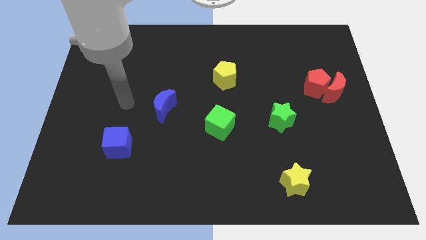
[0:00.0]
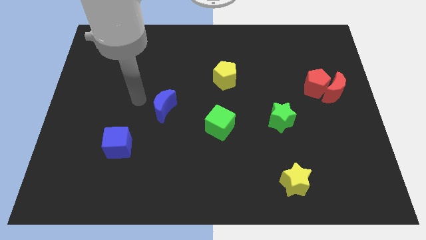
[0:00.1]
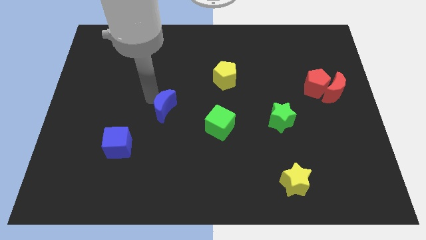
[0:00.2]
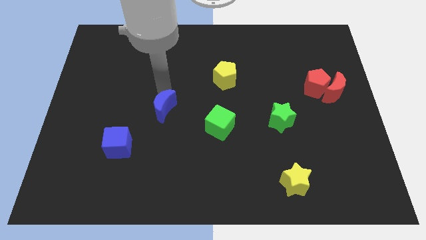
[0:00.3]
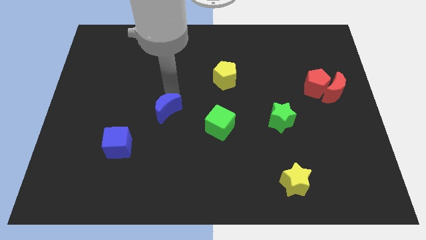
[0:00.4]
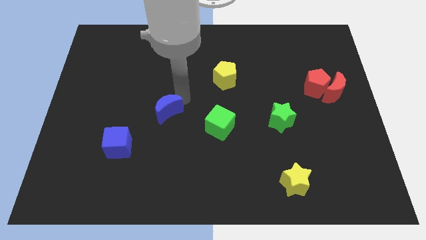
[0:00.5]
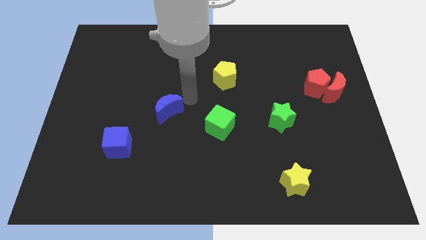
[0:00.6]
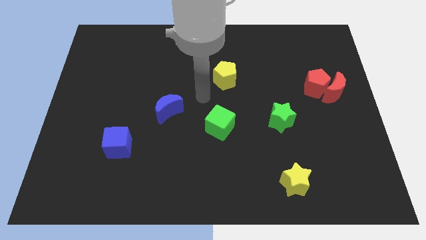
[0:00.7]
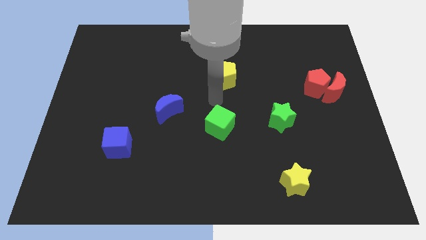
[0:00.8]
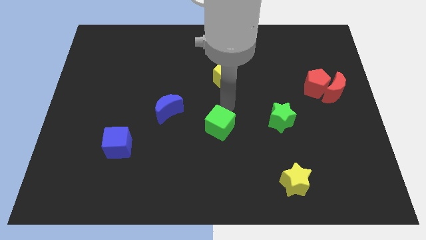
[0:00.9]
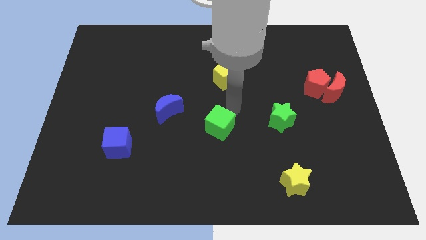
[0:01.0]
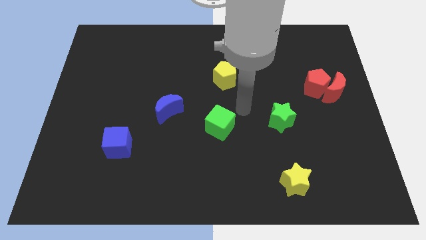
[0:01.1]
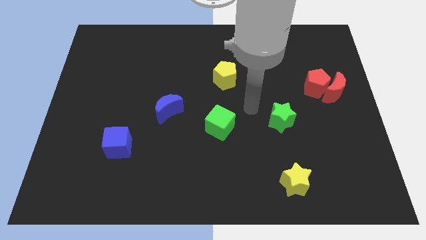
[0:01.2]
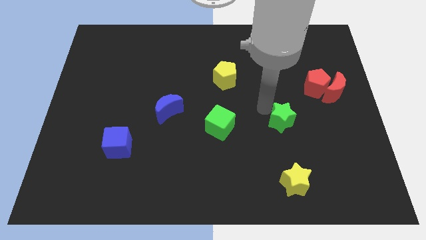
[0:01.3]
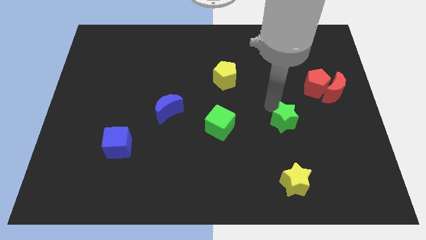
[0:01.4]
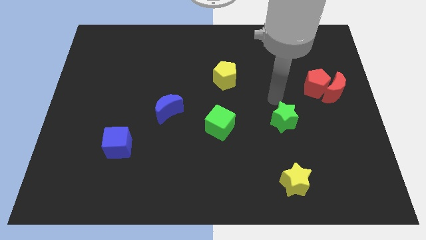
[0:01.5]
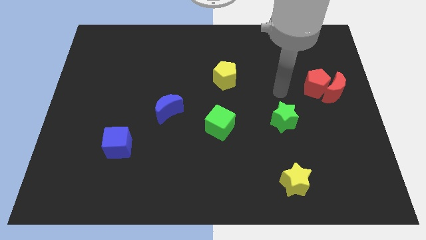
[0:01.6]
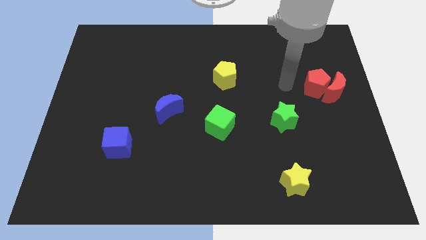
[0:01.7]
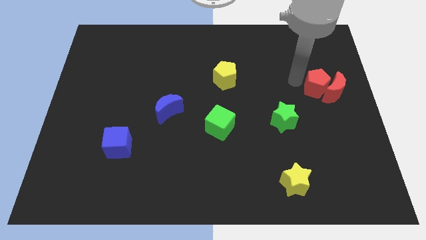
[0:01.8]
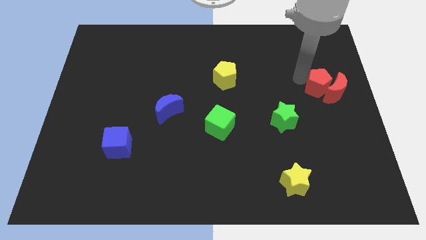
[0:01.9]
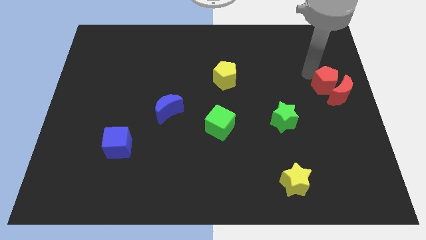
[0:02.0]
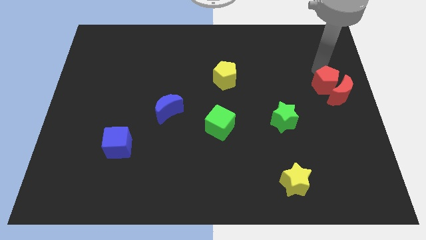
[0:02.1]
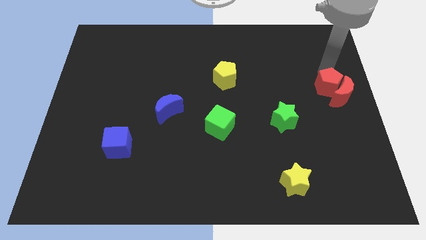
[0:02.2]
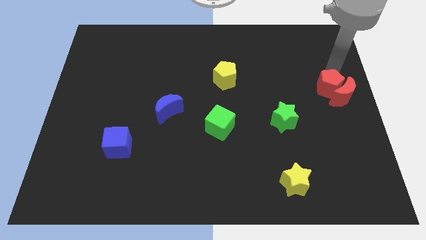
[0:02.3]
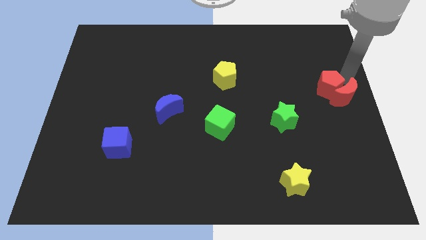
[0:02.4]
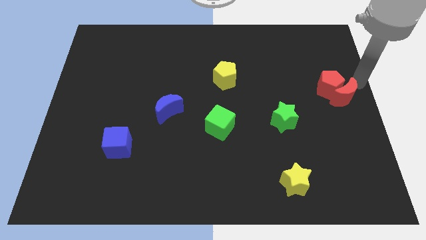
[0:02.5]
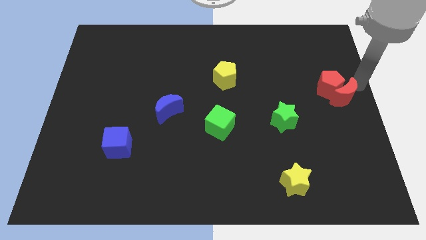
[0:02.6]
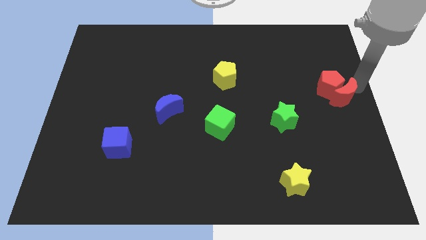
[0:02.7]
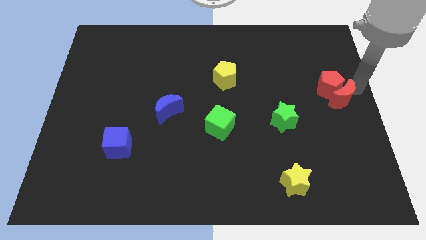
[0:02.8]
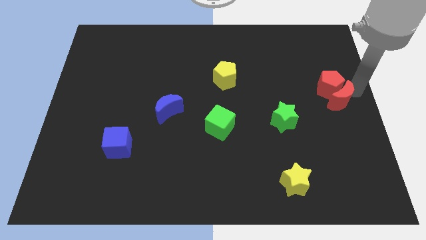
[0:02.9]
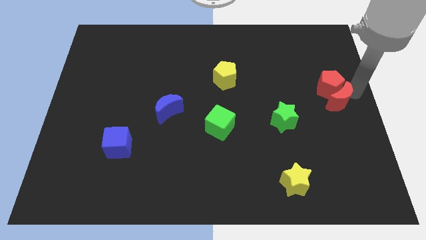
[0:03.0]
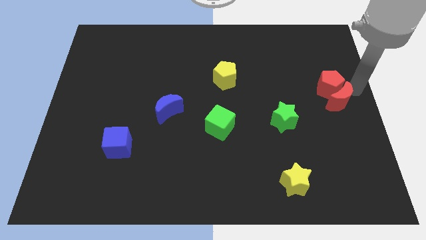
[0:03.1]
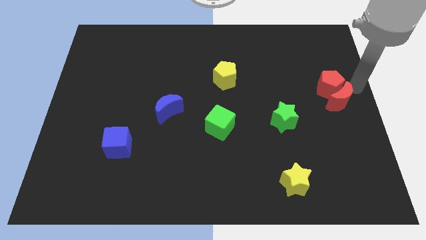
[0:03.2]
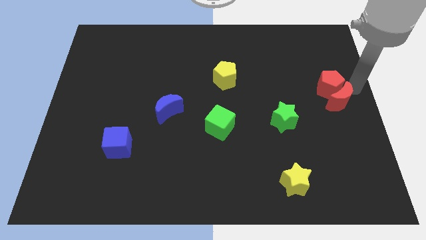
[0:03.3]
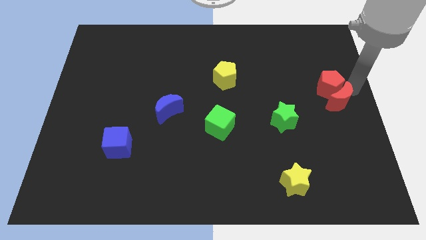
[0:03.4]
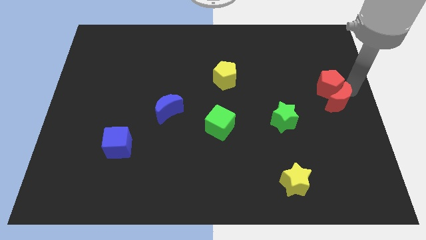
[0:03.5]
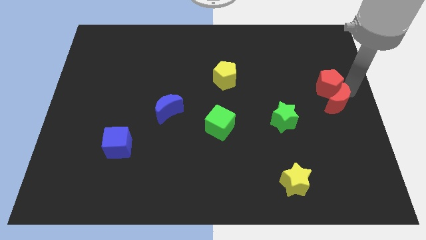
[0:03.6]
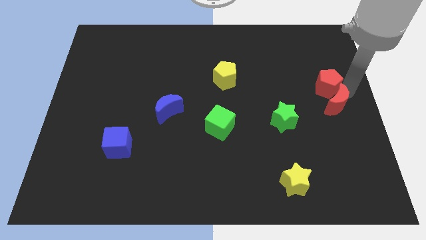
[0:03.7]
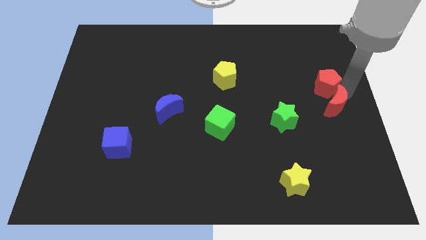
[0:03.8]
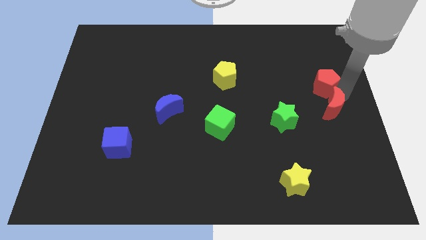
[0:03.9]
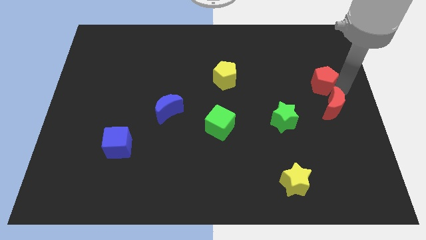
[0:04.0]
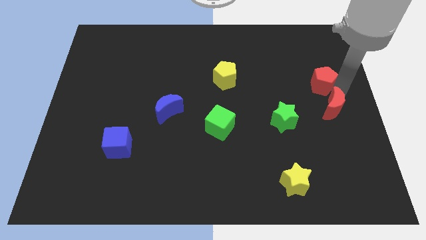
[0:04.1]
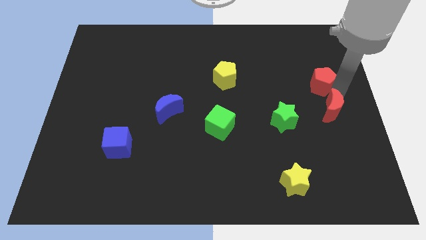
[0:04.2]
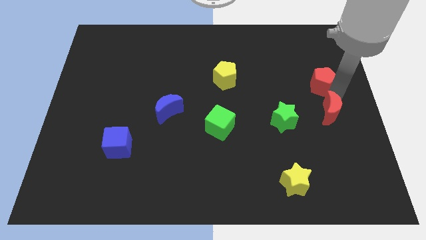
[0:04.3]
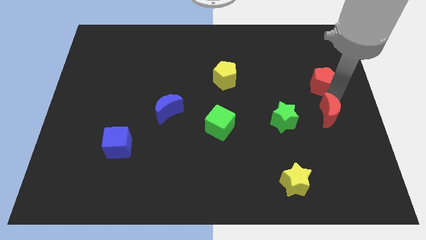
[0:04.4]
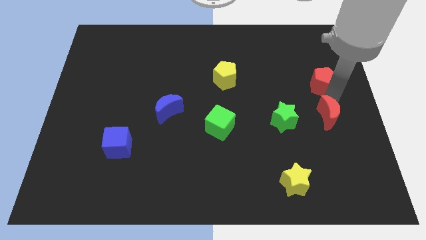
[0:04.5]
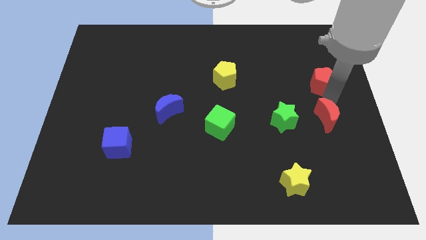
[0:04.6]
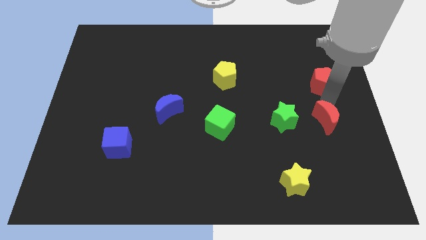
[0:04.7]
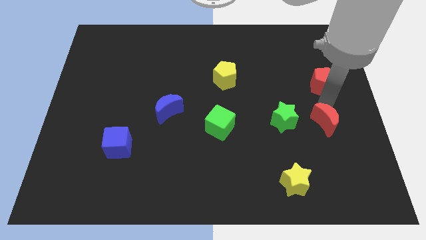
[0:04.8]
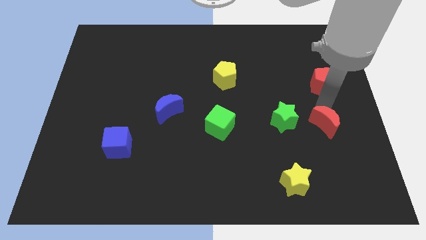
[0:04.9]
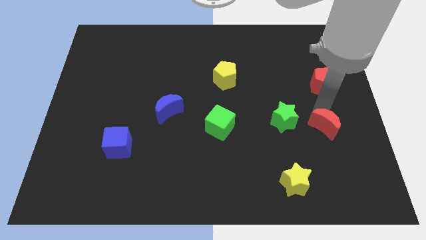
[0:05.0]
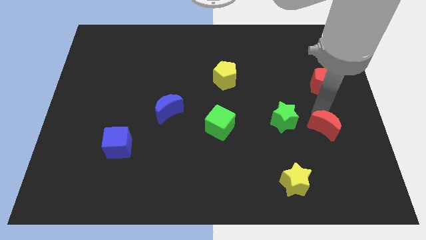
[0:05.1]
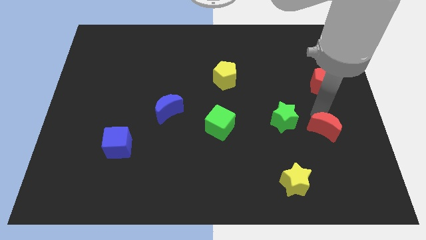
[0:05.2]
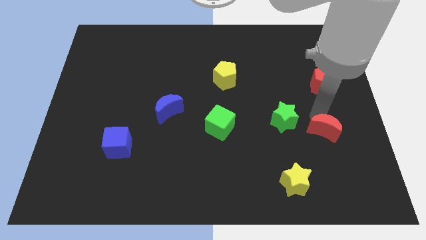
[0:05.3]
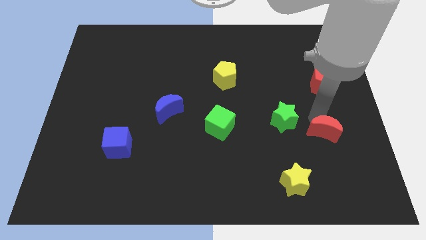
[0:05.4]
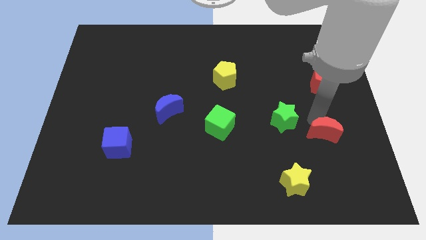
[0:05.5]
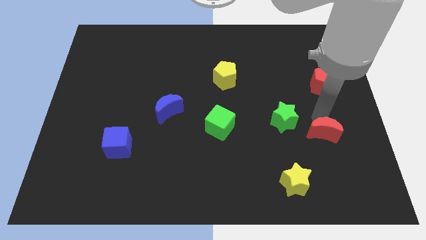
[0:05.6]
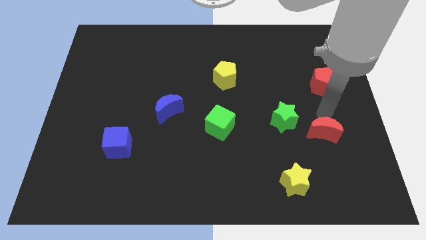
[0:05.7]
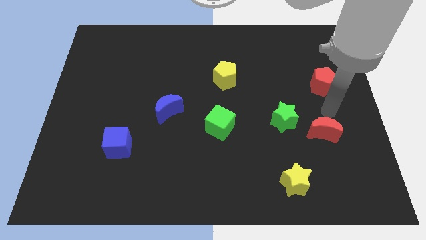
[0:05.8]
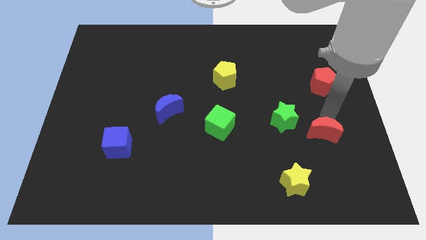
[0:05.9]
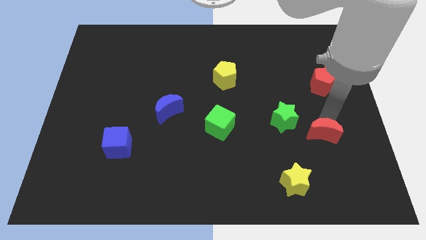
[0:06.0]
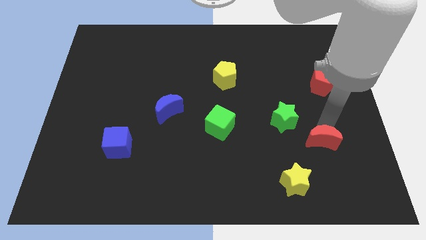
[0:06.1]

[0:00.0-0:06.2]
put the red moon to the top right side of the yellow star

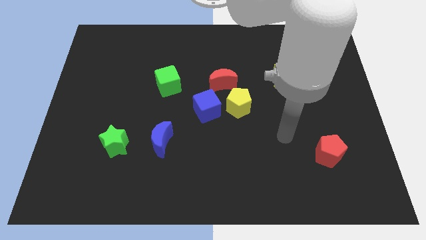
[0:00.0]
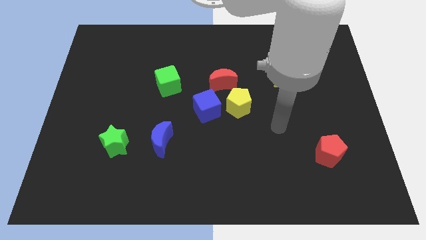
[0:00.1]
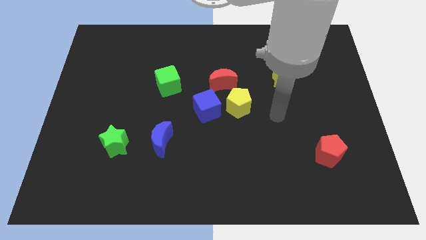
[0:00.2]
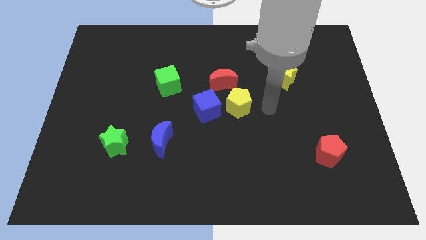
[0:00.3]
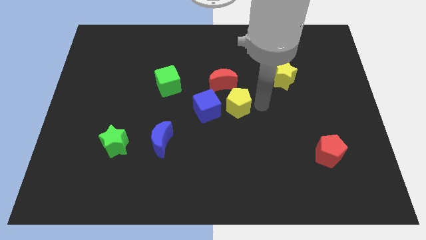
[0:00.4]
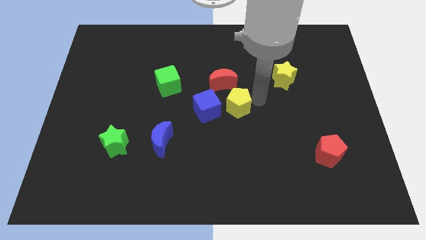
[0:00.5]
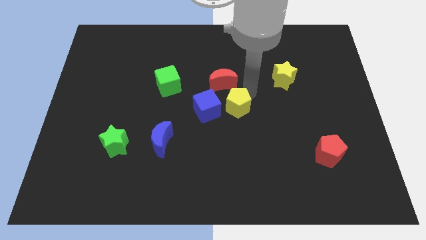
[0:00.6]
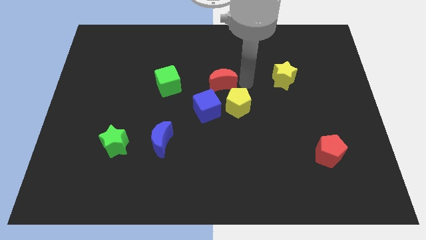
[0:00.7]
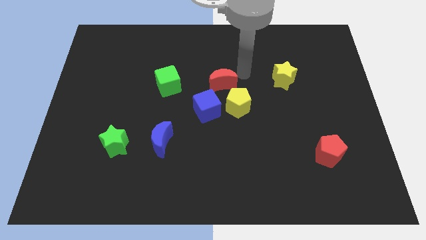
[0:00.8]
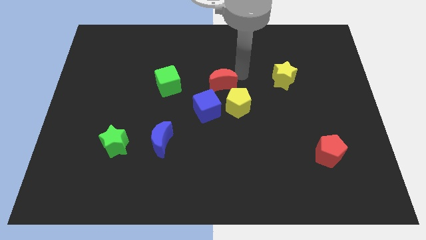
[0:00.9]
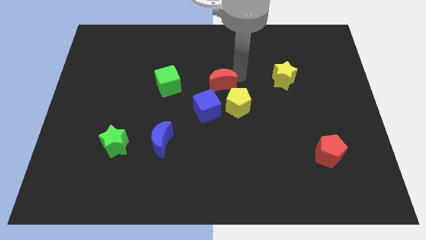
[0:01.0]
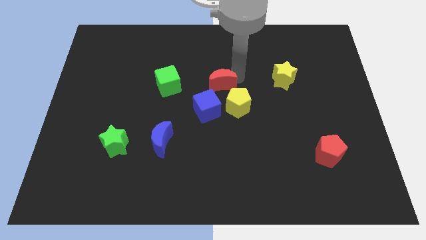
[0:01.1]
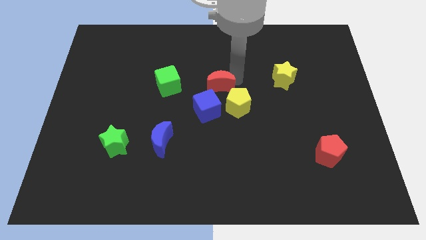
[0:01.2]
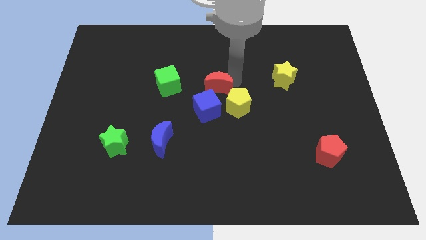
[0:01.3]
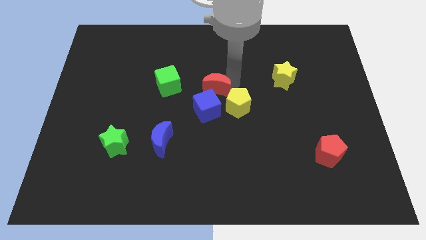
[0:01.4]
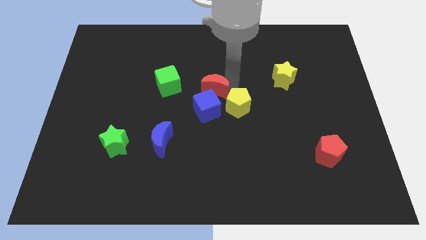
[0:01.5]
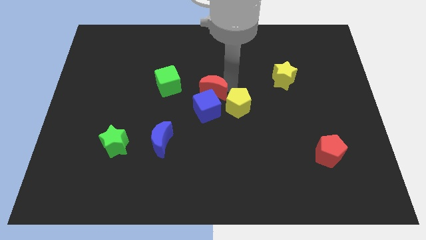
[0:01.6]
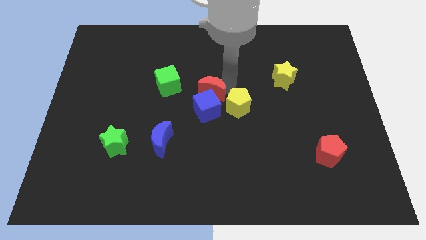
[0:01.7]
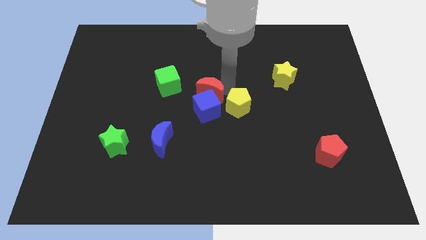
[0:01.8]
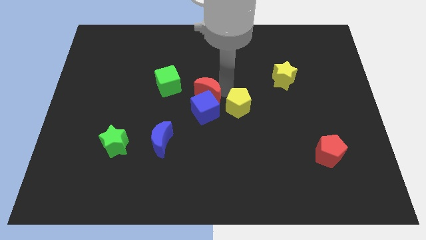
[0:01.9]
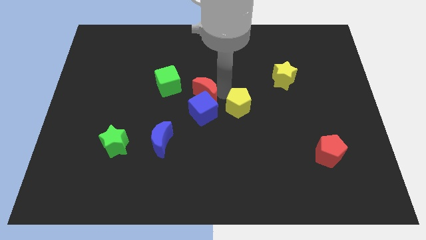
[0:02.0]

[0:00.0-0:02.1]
push the red moon to the bottom right of the green cube
